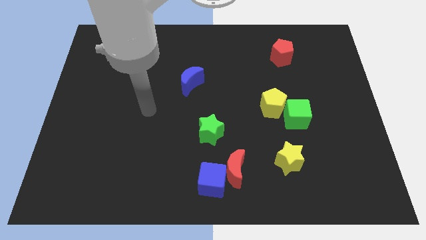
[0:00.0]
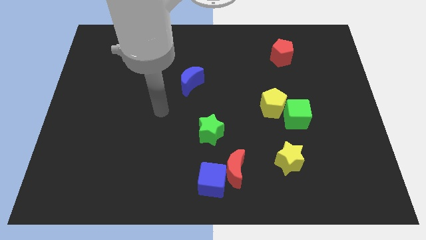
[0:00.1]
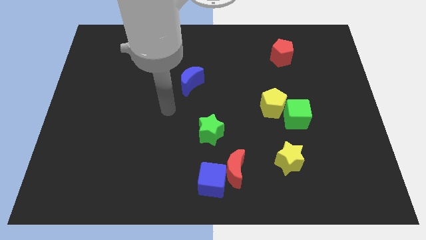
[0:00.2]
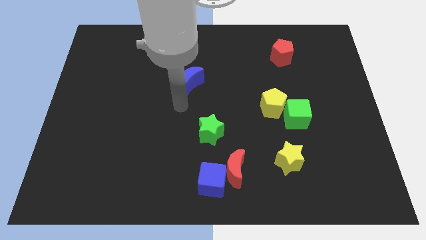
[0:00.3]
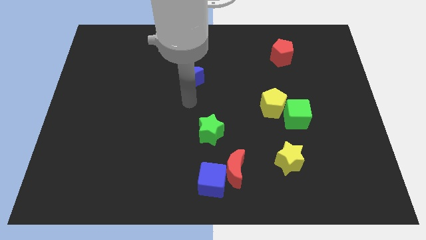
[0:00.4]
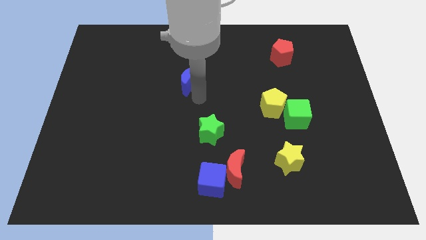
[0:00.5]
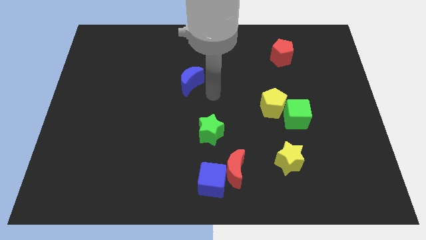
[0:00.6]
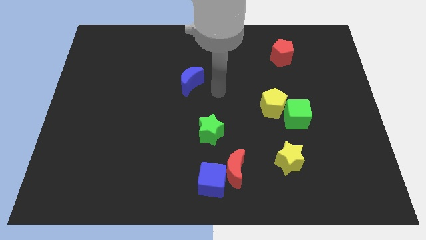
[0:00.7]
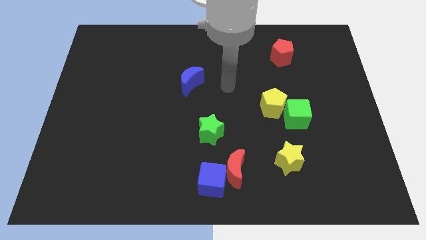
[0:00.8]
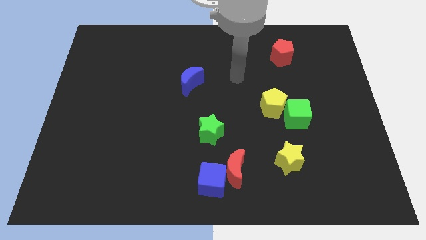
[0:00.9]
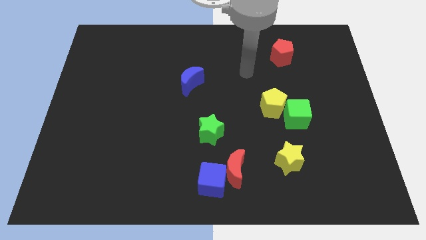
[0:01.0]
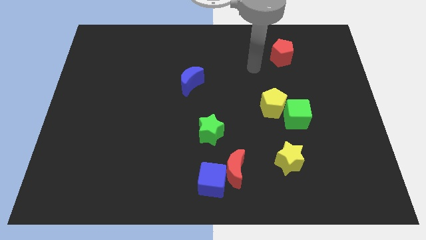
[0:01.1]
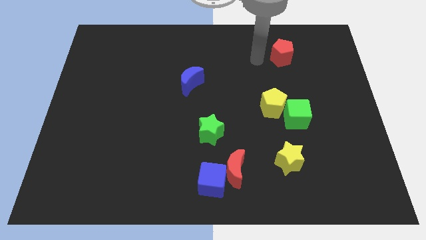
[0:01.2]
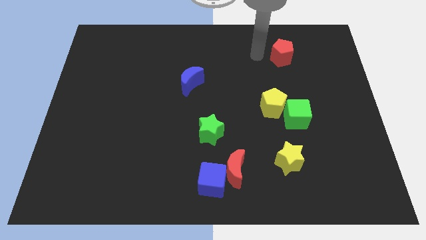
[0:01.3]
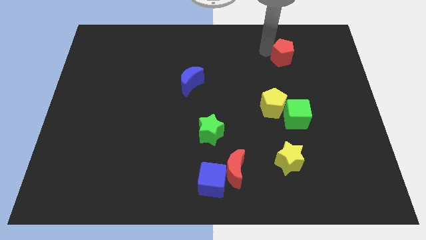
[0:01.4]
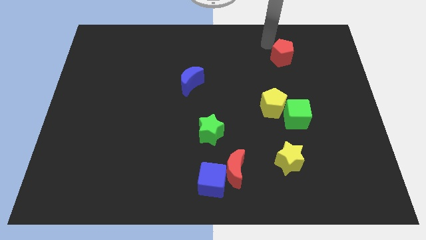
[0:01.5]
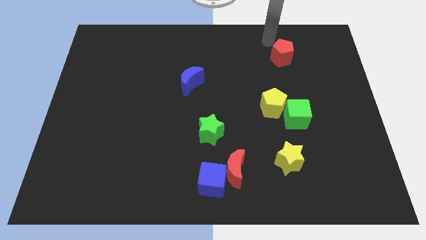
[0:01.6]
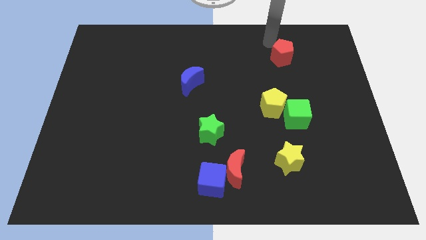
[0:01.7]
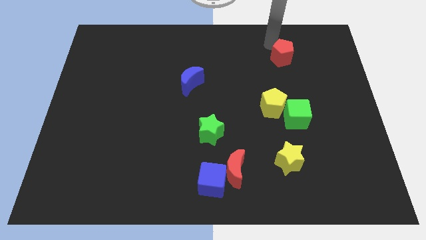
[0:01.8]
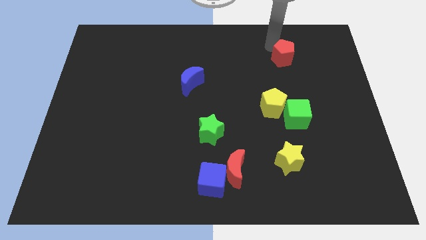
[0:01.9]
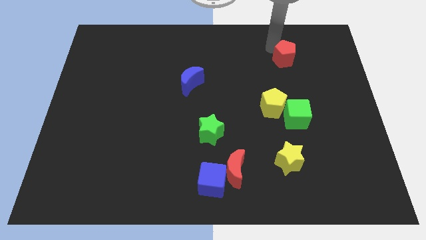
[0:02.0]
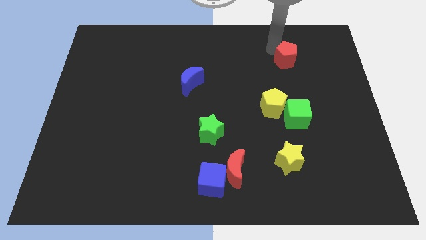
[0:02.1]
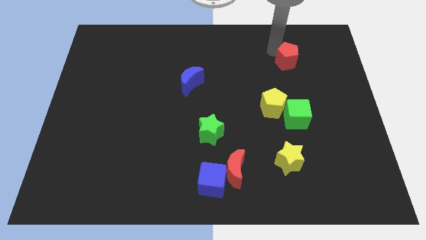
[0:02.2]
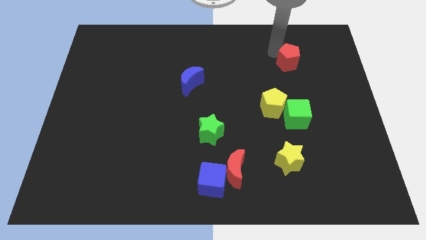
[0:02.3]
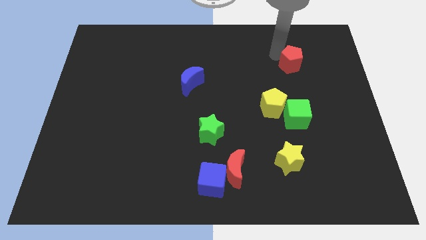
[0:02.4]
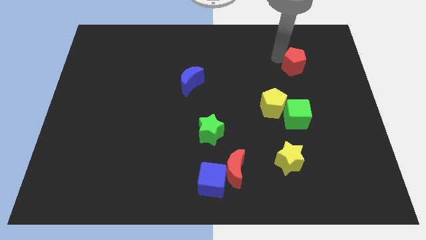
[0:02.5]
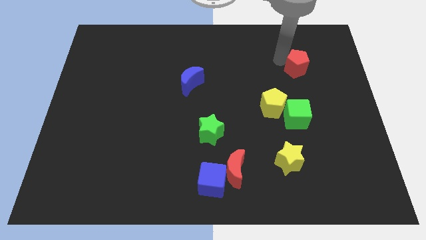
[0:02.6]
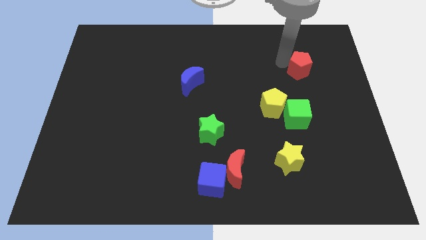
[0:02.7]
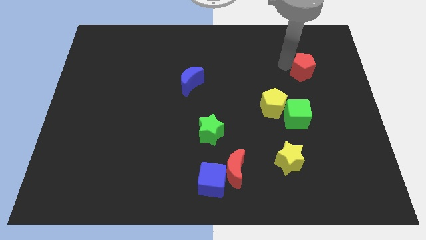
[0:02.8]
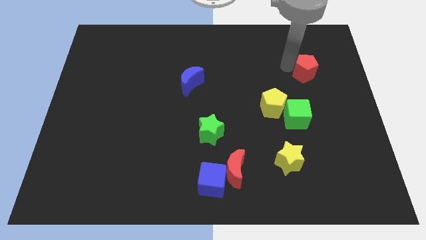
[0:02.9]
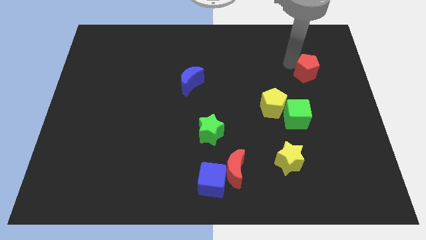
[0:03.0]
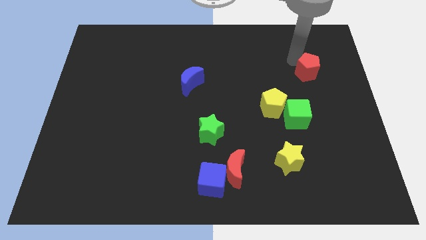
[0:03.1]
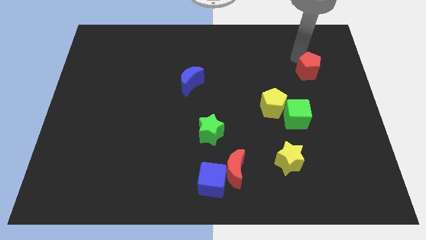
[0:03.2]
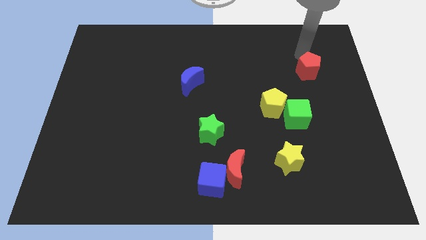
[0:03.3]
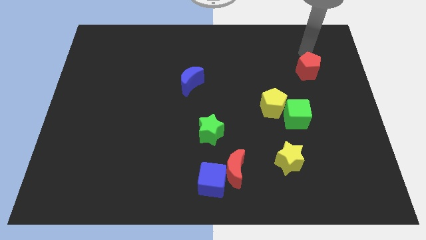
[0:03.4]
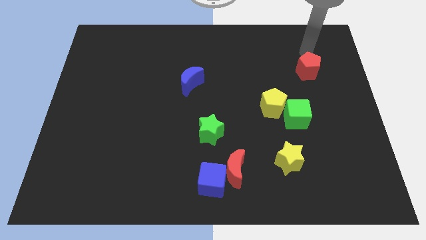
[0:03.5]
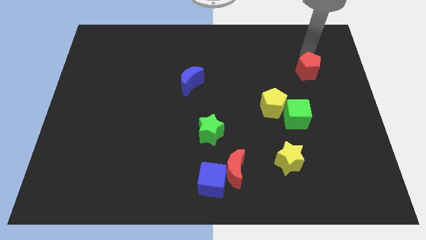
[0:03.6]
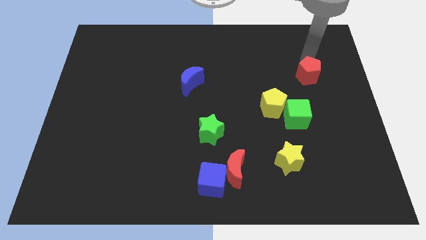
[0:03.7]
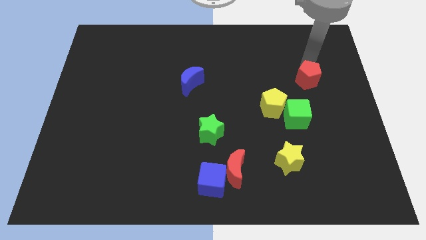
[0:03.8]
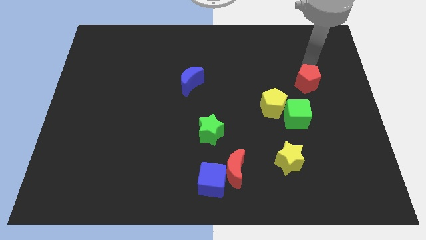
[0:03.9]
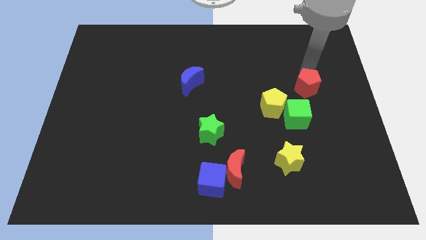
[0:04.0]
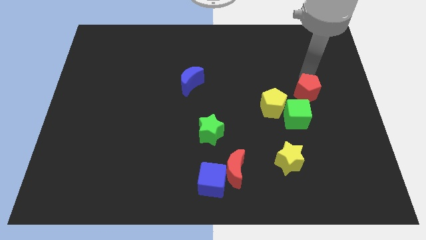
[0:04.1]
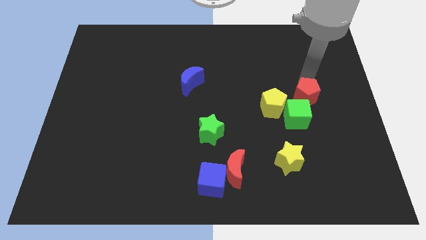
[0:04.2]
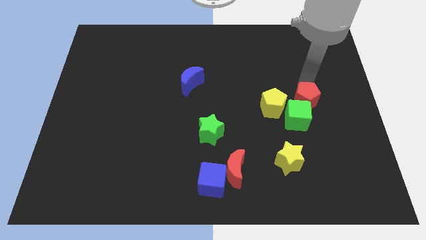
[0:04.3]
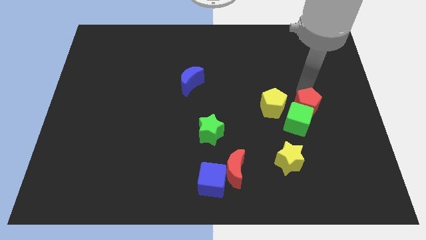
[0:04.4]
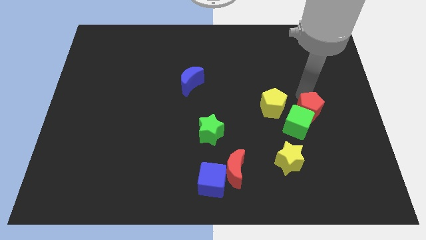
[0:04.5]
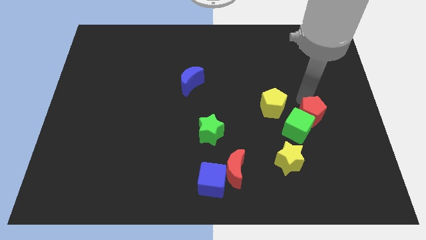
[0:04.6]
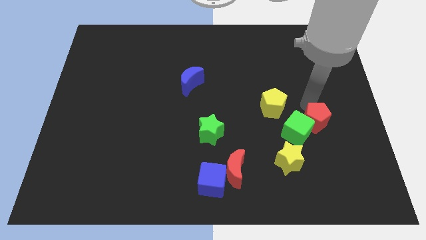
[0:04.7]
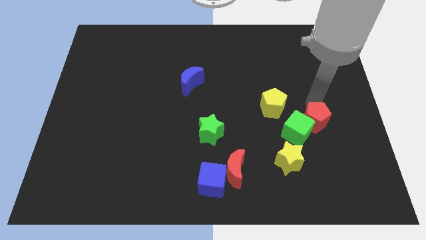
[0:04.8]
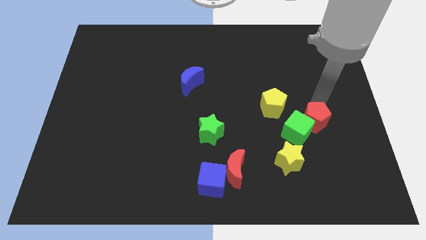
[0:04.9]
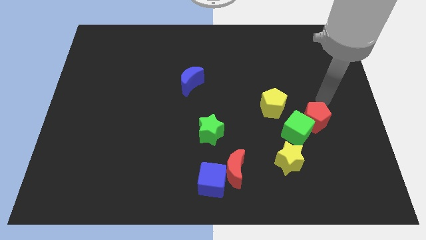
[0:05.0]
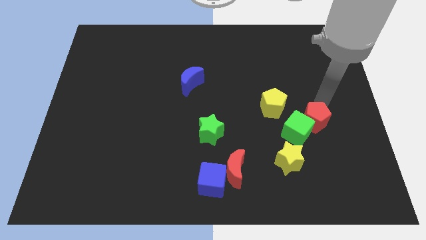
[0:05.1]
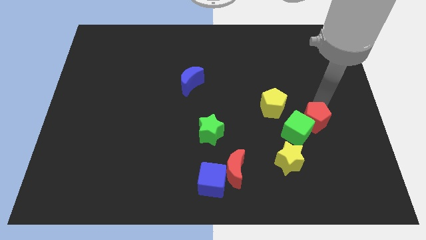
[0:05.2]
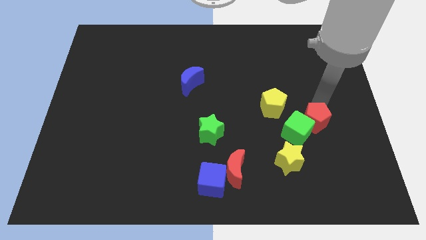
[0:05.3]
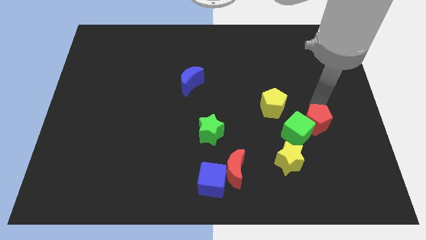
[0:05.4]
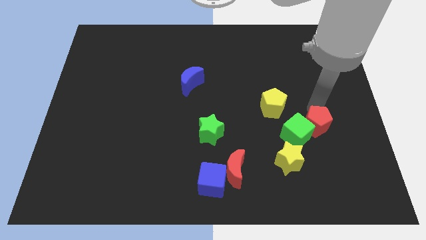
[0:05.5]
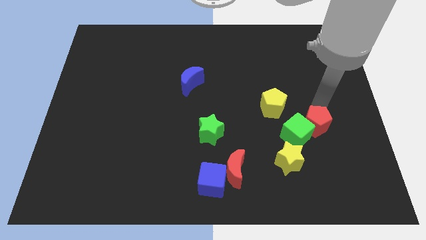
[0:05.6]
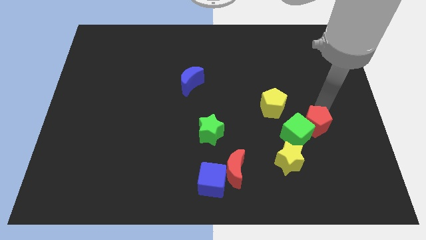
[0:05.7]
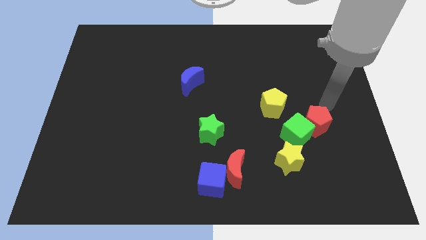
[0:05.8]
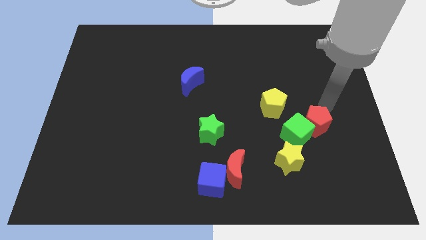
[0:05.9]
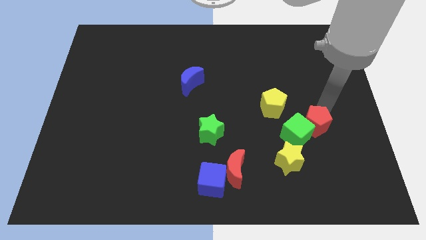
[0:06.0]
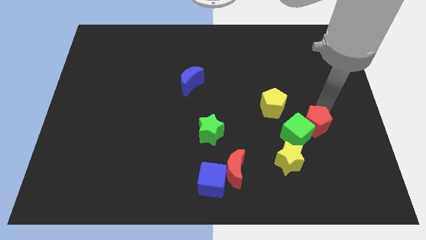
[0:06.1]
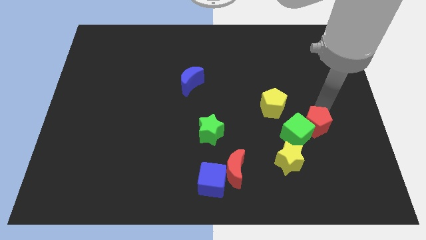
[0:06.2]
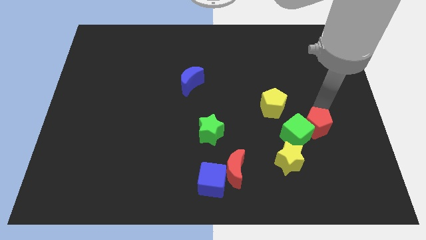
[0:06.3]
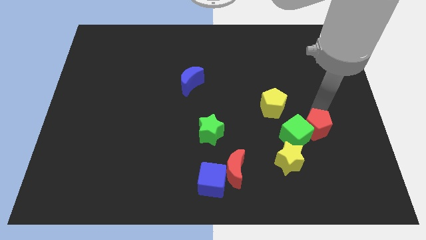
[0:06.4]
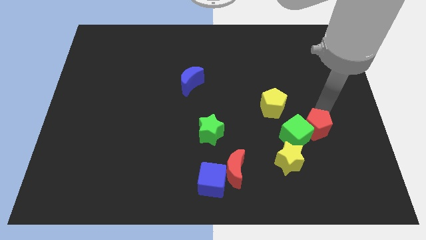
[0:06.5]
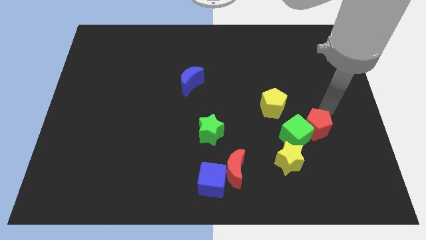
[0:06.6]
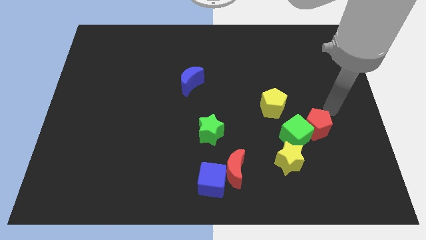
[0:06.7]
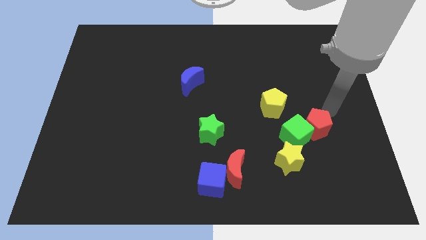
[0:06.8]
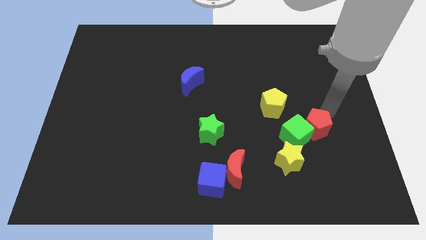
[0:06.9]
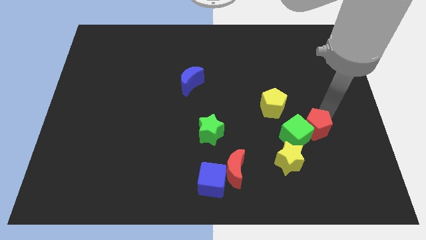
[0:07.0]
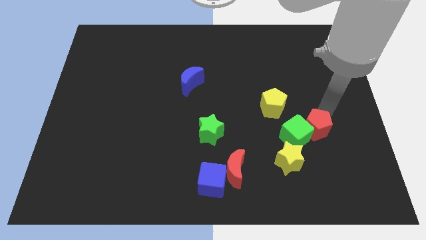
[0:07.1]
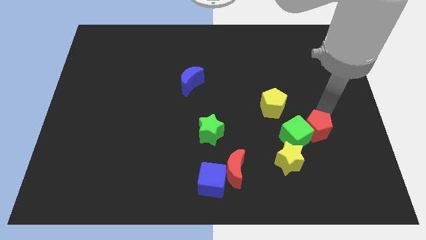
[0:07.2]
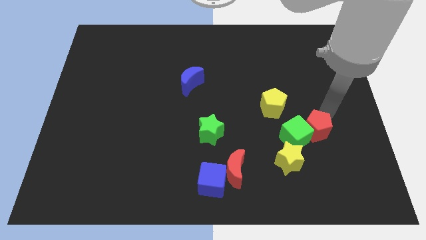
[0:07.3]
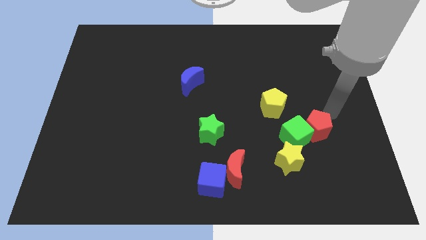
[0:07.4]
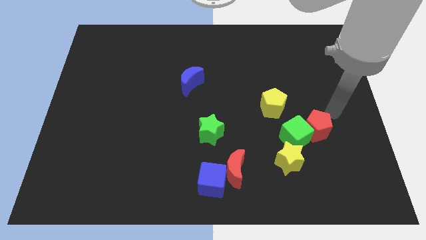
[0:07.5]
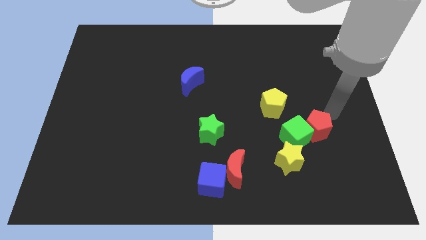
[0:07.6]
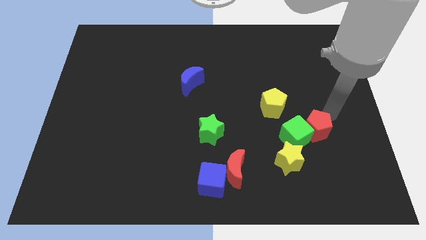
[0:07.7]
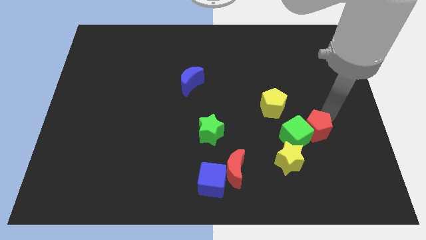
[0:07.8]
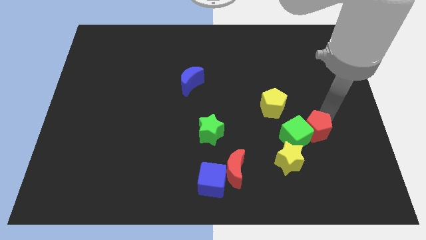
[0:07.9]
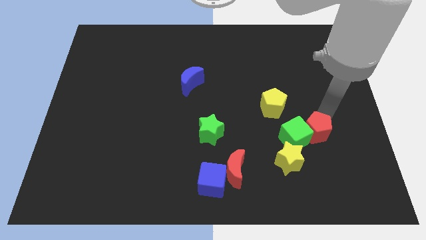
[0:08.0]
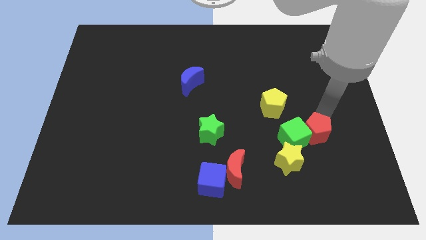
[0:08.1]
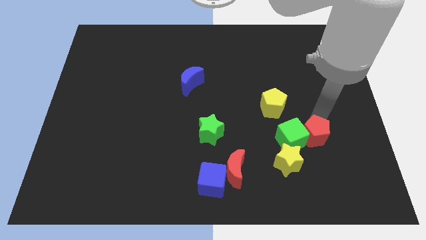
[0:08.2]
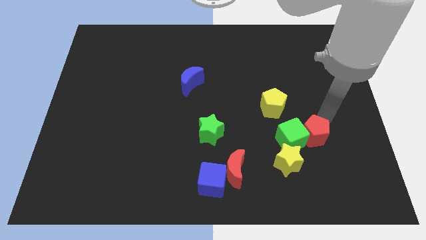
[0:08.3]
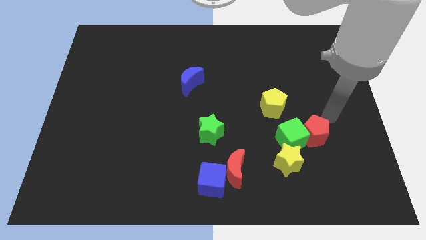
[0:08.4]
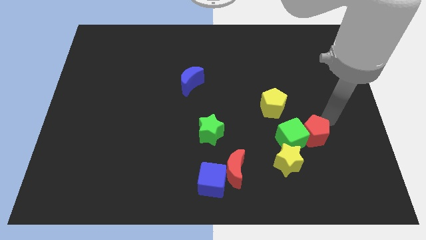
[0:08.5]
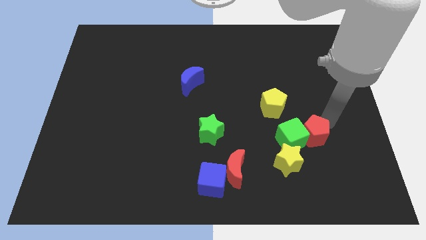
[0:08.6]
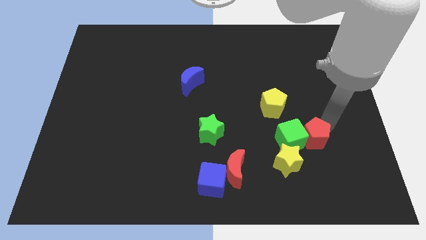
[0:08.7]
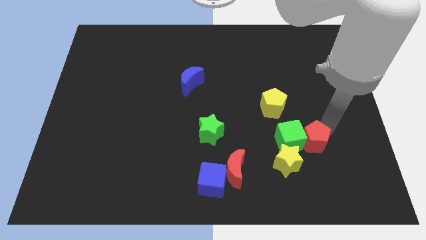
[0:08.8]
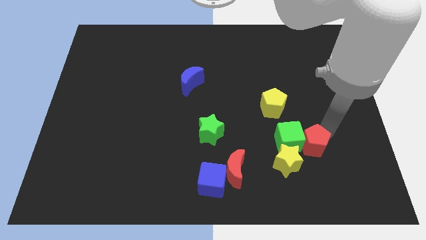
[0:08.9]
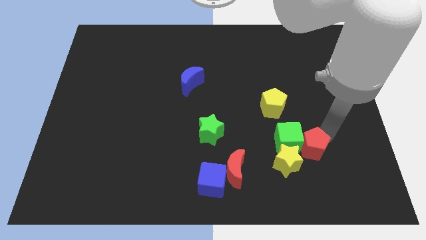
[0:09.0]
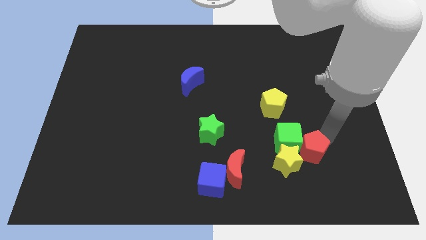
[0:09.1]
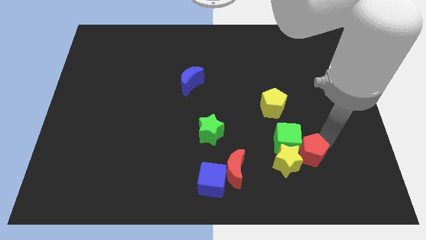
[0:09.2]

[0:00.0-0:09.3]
move the red pentagon to the yellow star
